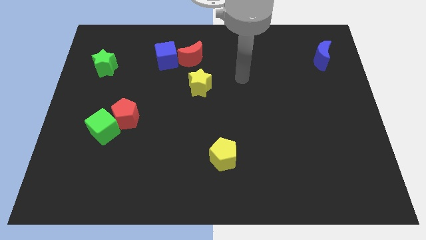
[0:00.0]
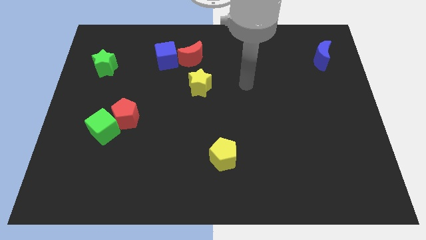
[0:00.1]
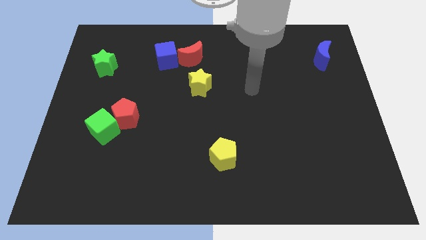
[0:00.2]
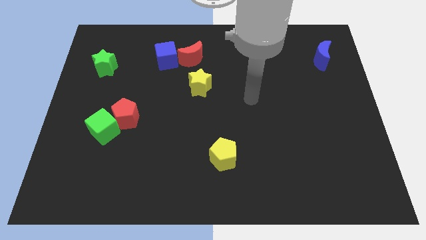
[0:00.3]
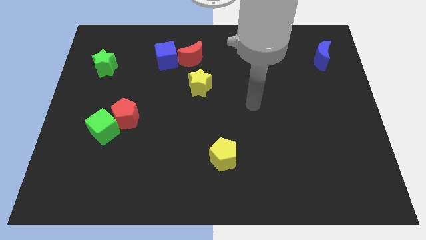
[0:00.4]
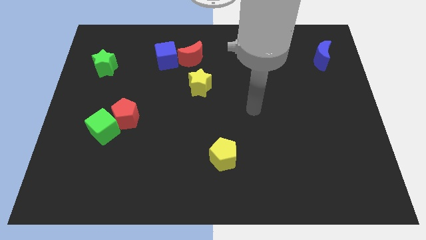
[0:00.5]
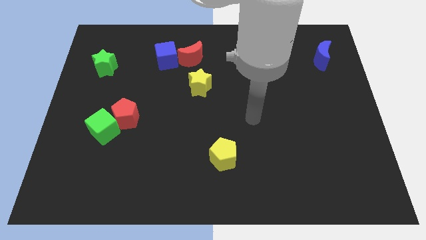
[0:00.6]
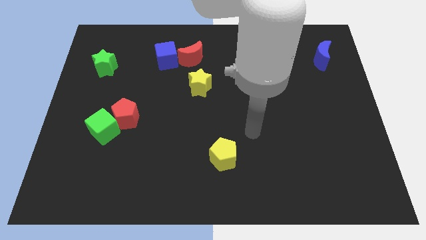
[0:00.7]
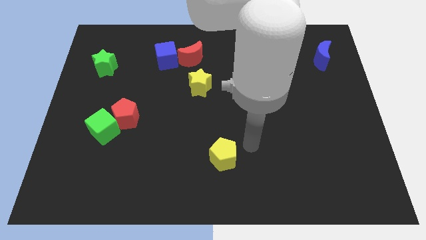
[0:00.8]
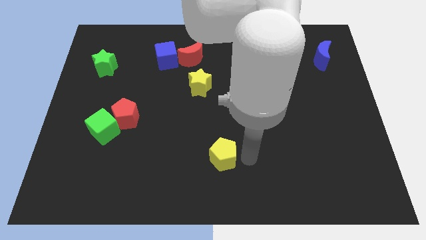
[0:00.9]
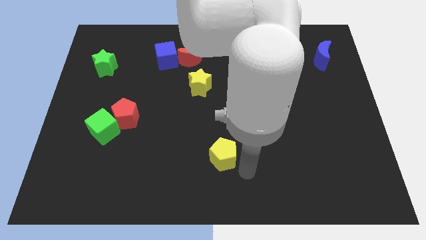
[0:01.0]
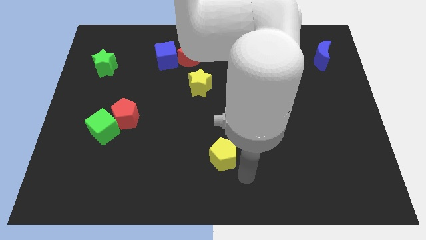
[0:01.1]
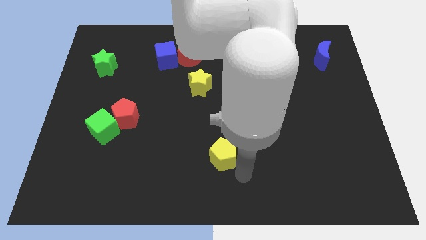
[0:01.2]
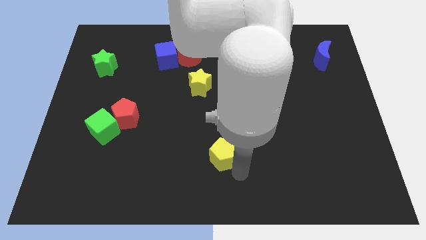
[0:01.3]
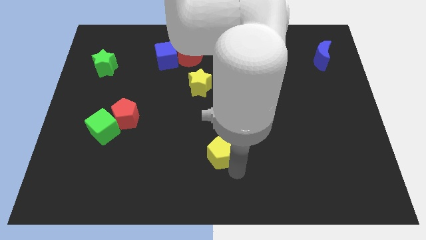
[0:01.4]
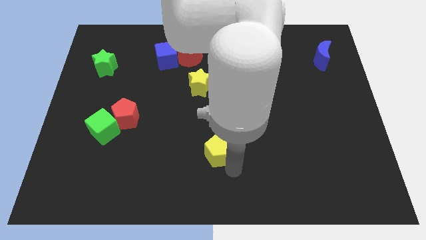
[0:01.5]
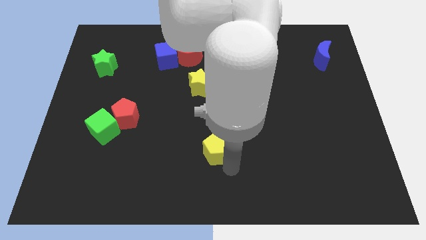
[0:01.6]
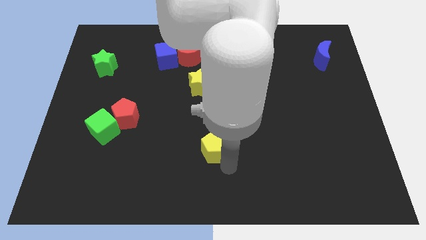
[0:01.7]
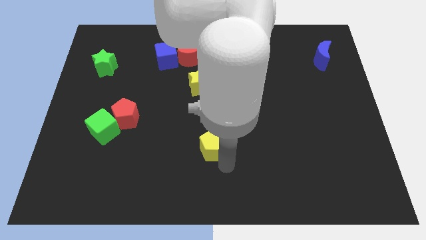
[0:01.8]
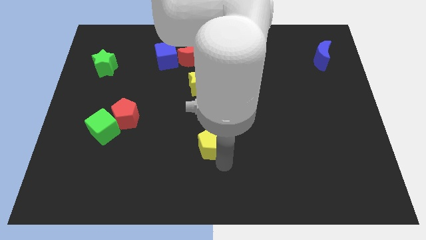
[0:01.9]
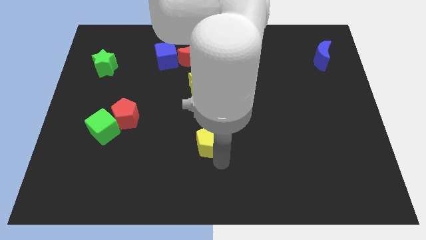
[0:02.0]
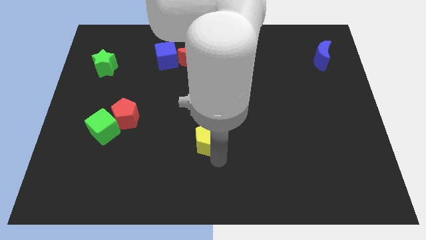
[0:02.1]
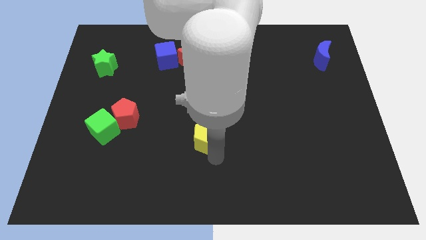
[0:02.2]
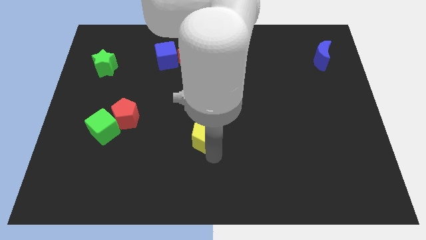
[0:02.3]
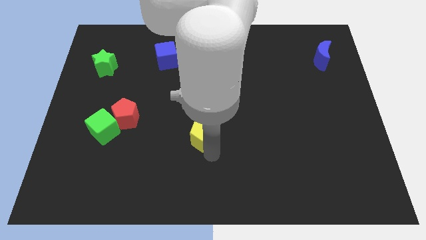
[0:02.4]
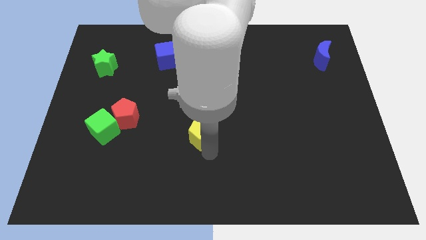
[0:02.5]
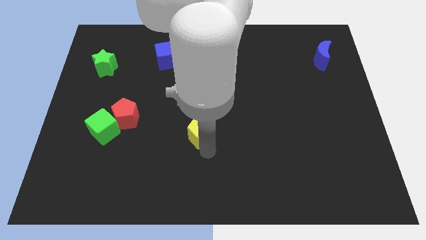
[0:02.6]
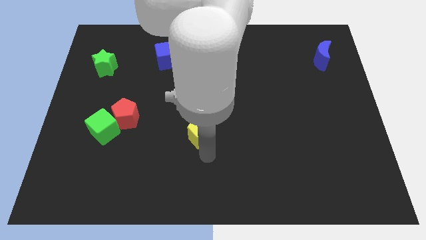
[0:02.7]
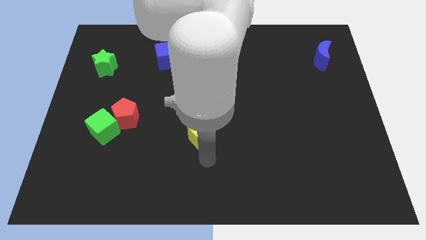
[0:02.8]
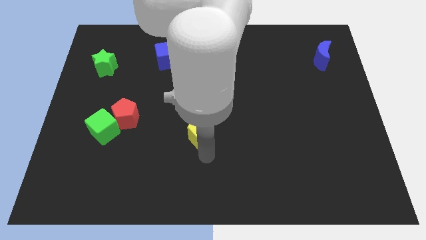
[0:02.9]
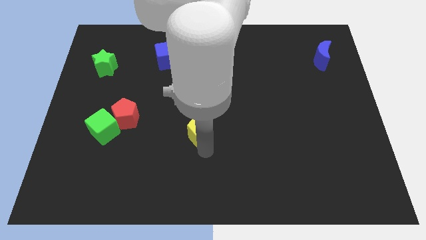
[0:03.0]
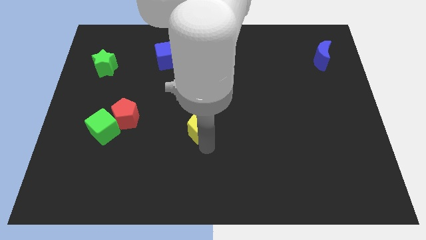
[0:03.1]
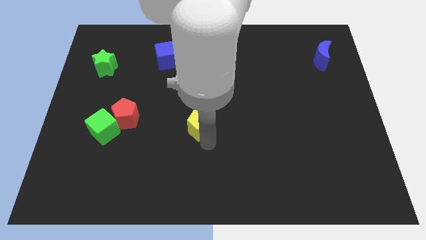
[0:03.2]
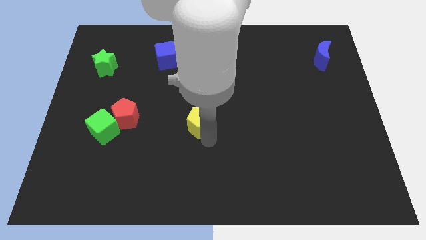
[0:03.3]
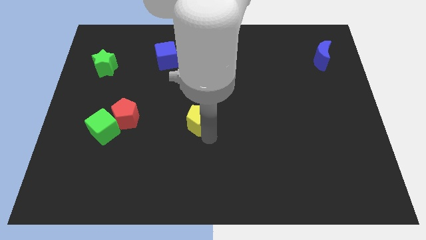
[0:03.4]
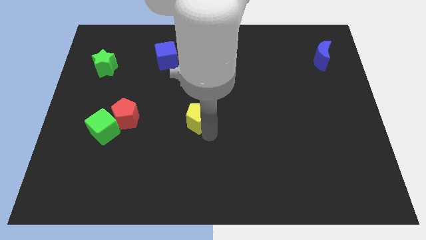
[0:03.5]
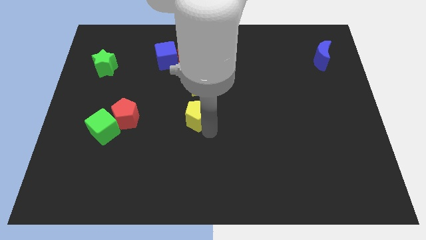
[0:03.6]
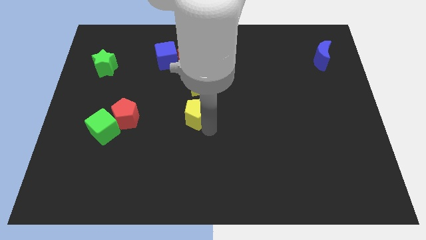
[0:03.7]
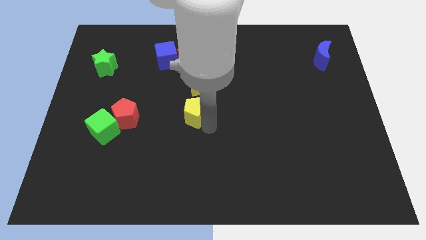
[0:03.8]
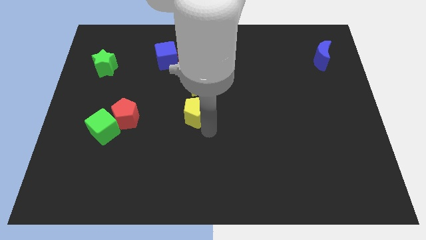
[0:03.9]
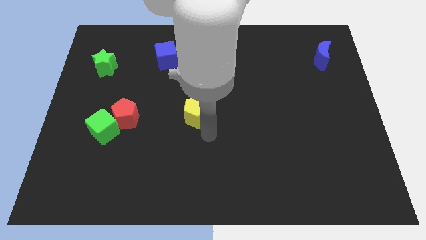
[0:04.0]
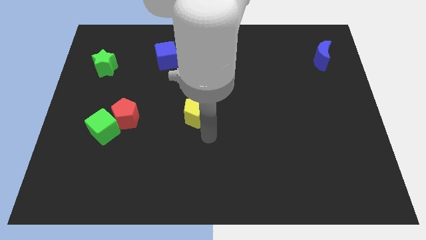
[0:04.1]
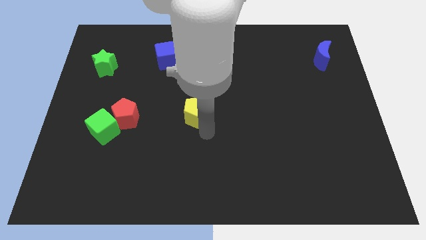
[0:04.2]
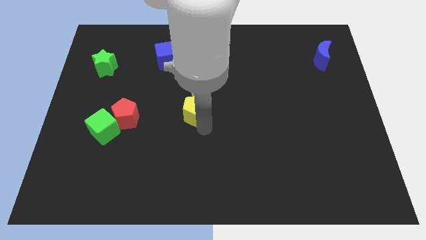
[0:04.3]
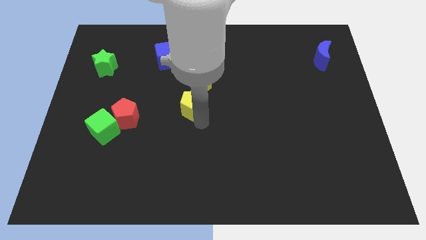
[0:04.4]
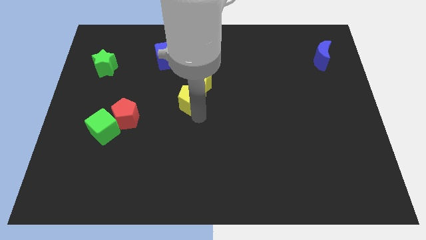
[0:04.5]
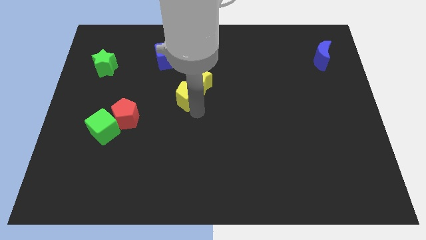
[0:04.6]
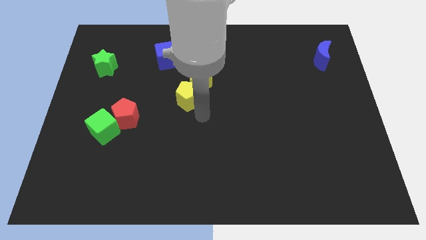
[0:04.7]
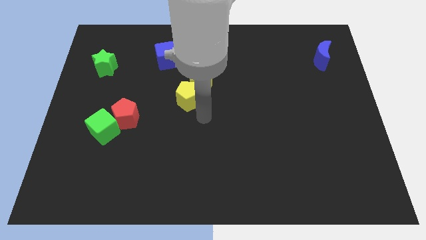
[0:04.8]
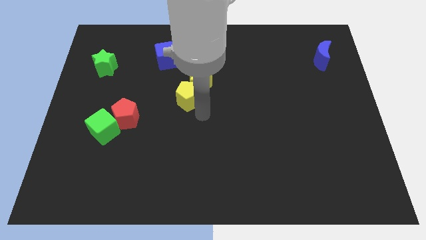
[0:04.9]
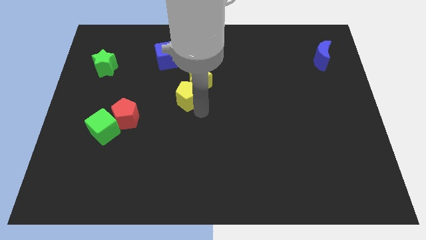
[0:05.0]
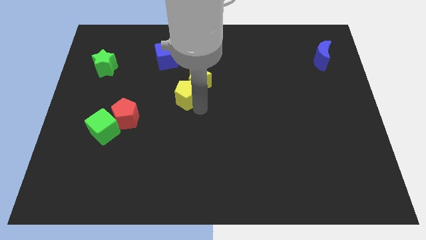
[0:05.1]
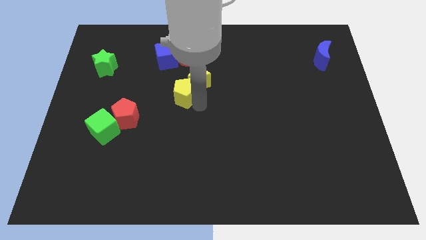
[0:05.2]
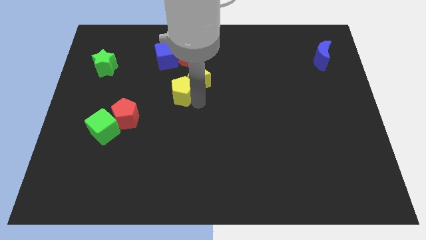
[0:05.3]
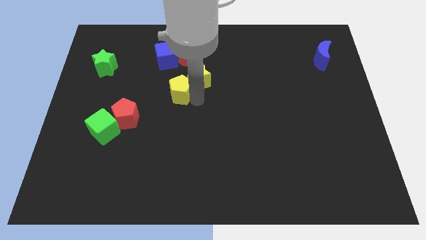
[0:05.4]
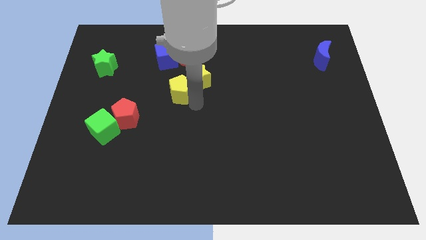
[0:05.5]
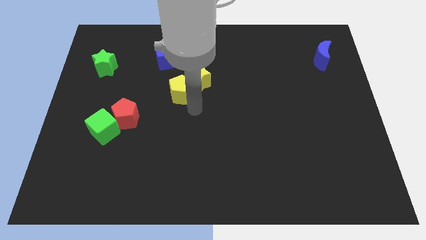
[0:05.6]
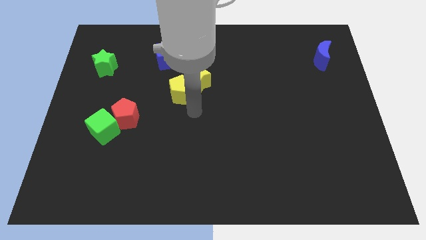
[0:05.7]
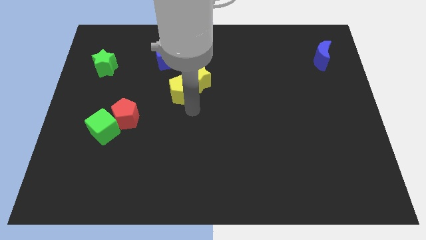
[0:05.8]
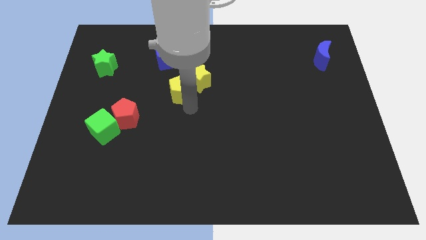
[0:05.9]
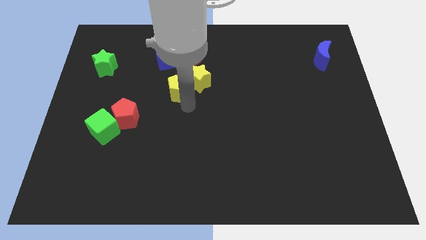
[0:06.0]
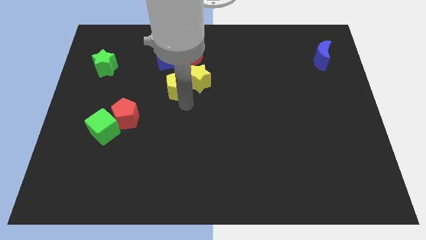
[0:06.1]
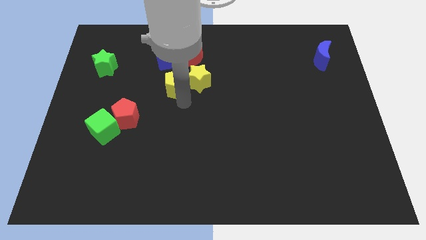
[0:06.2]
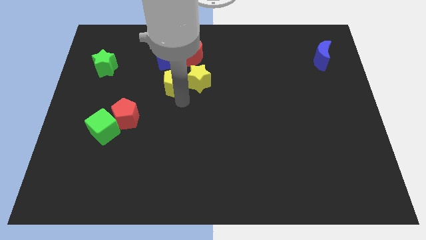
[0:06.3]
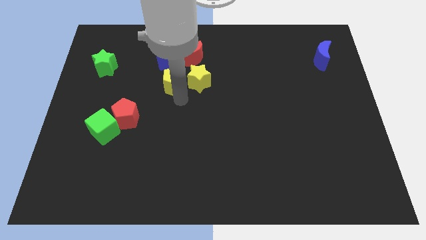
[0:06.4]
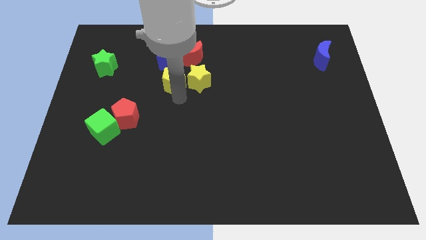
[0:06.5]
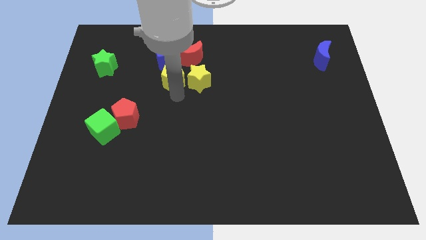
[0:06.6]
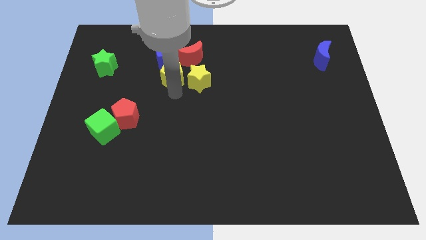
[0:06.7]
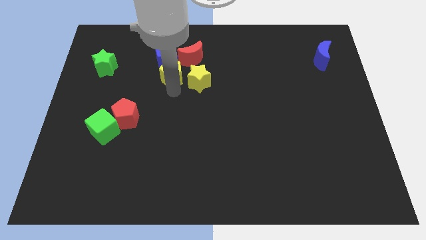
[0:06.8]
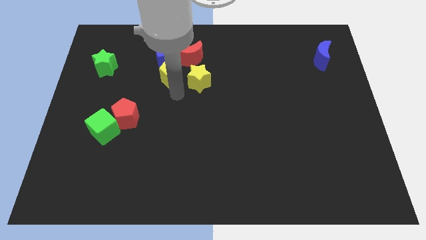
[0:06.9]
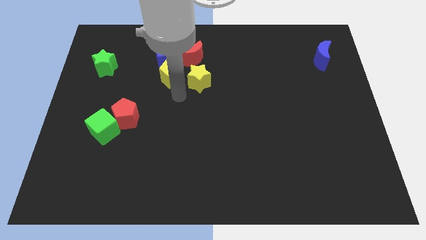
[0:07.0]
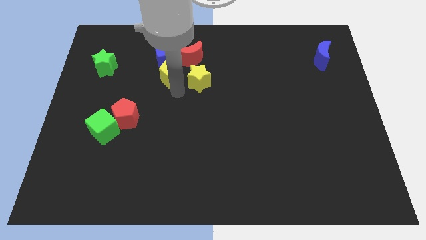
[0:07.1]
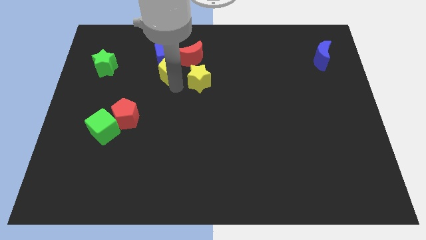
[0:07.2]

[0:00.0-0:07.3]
slide the yellow pentagon to the blue cube
